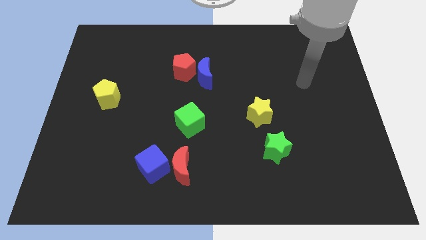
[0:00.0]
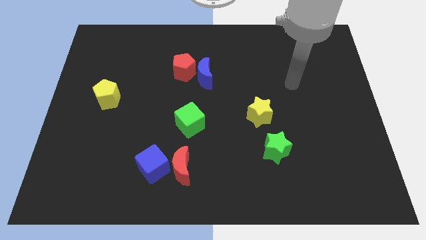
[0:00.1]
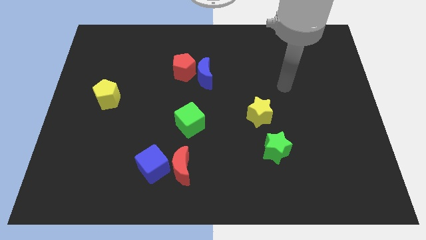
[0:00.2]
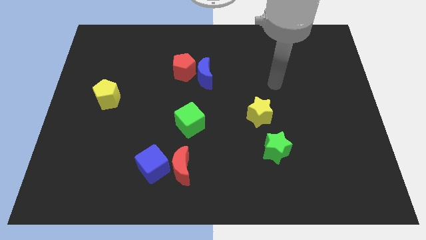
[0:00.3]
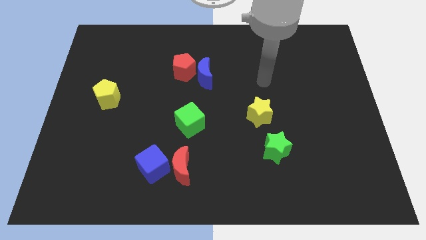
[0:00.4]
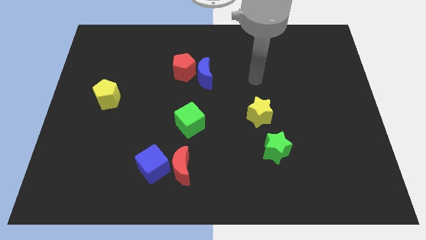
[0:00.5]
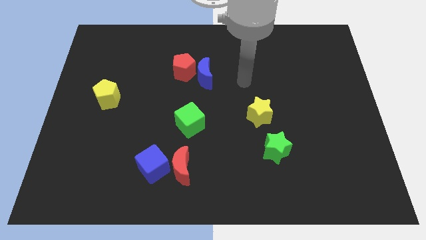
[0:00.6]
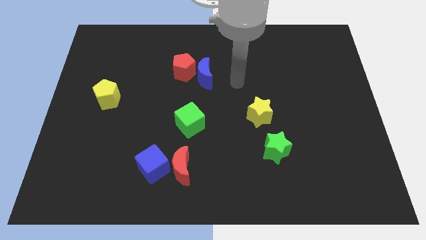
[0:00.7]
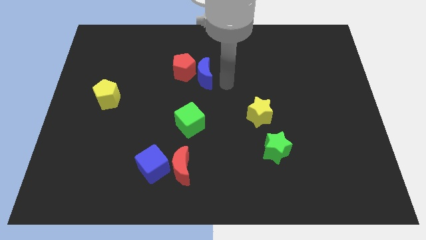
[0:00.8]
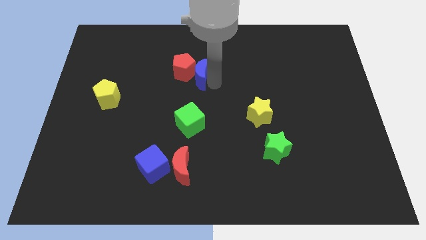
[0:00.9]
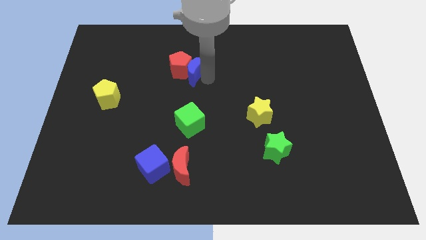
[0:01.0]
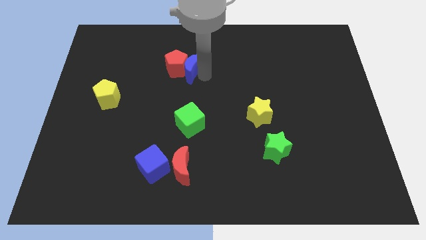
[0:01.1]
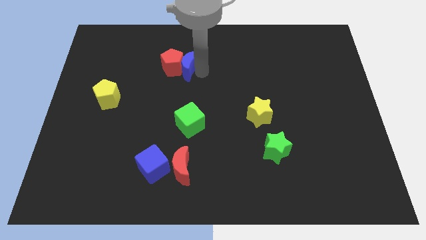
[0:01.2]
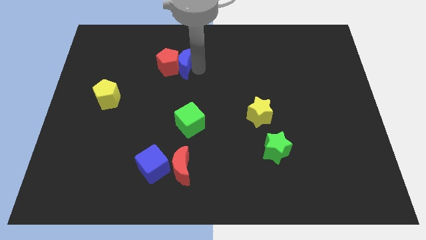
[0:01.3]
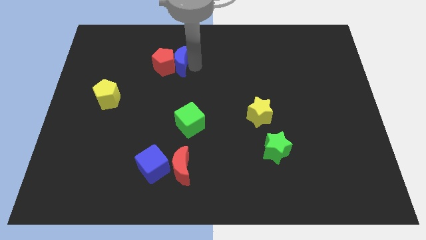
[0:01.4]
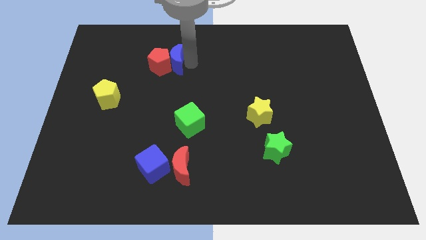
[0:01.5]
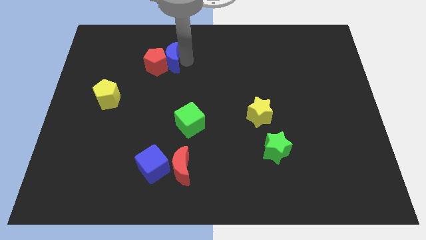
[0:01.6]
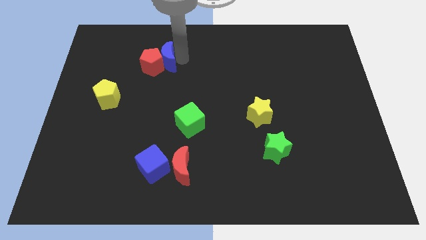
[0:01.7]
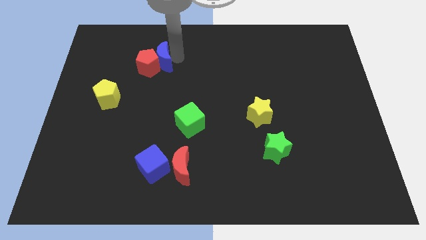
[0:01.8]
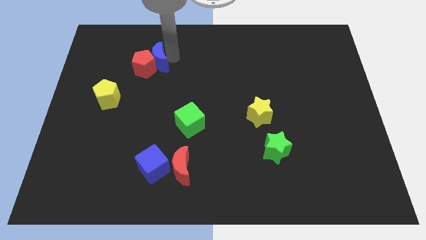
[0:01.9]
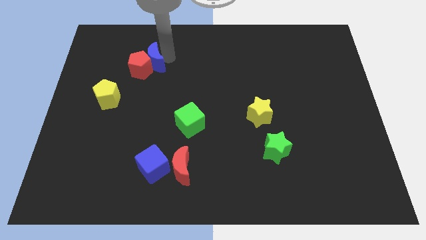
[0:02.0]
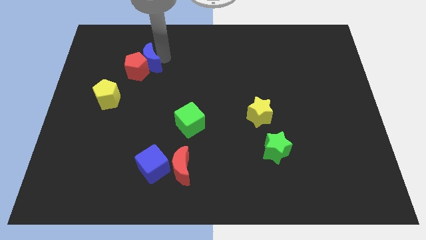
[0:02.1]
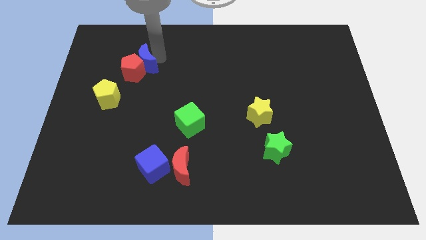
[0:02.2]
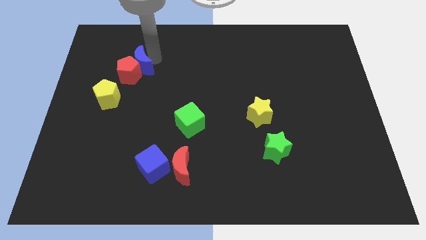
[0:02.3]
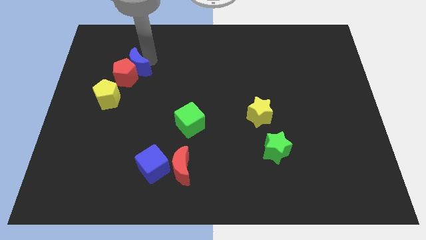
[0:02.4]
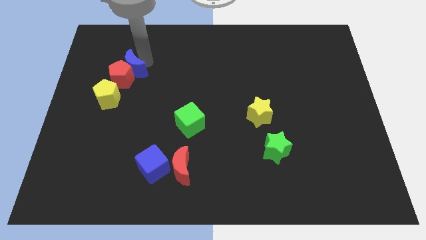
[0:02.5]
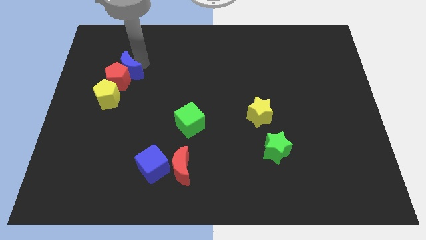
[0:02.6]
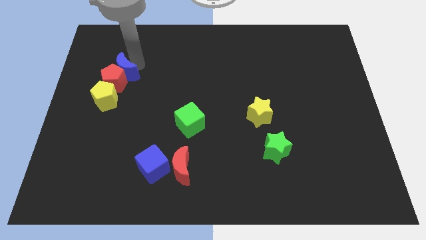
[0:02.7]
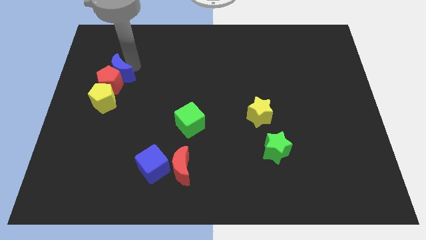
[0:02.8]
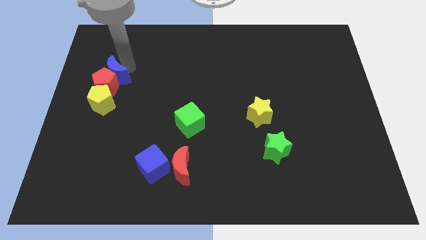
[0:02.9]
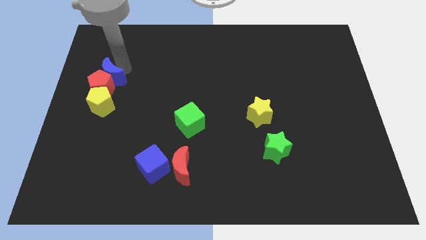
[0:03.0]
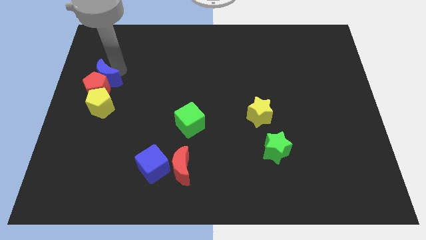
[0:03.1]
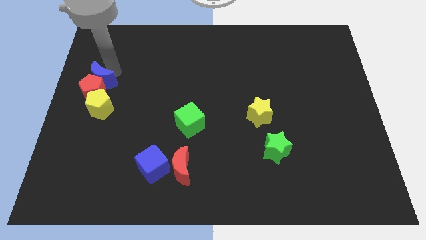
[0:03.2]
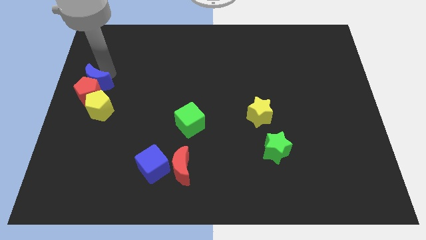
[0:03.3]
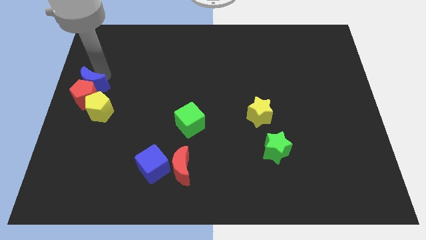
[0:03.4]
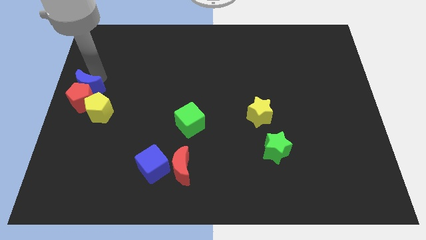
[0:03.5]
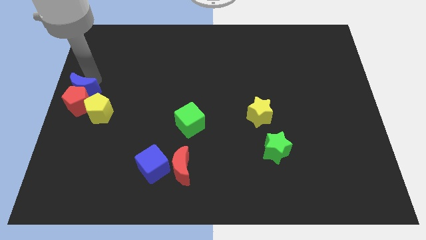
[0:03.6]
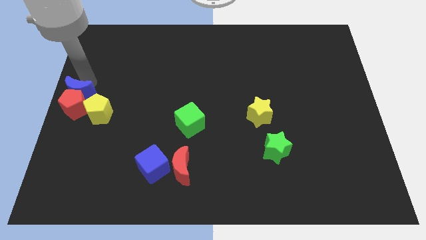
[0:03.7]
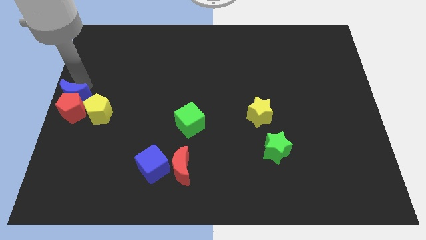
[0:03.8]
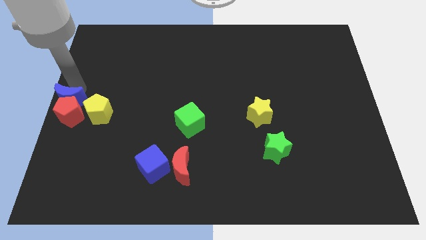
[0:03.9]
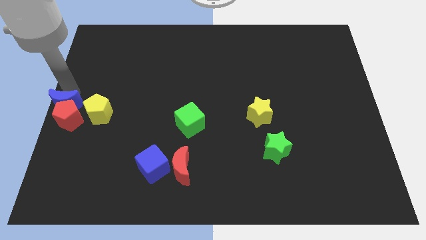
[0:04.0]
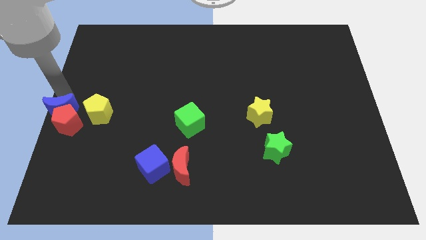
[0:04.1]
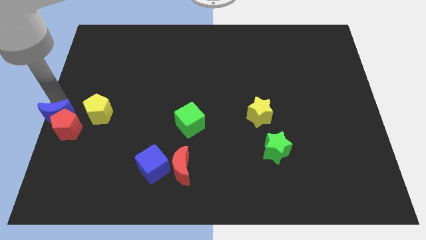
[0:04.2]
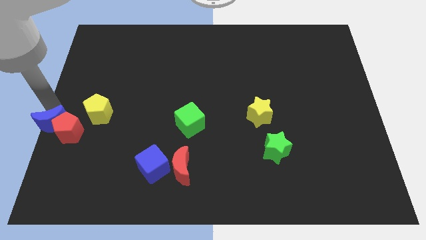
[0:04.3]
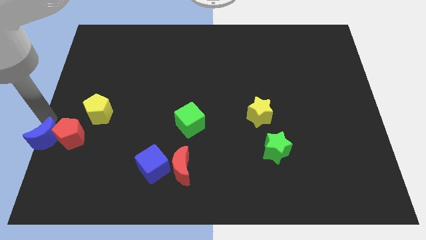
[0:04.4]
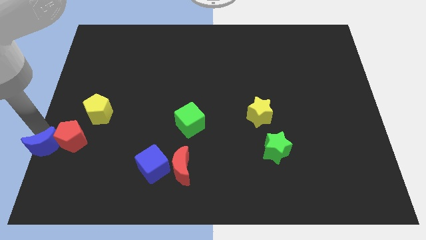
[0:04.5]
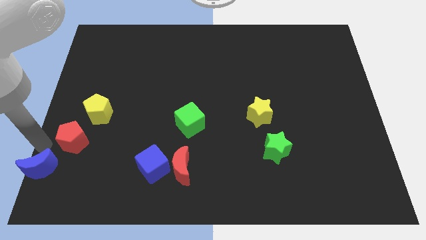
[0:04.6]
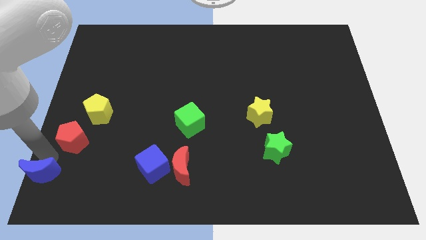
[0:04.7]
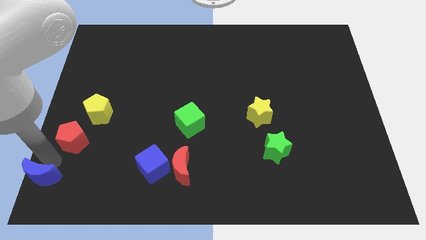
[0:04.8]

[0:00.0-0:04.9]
move the red pentagon away from the blue moon

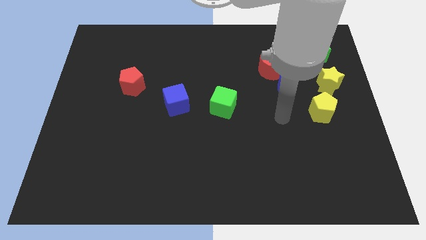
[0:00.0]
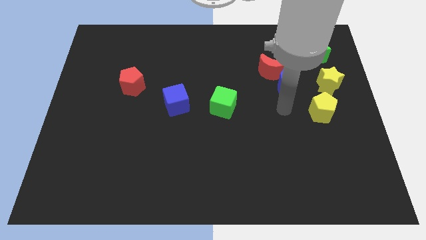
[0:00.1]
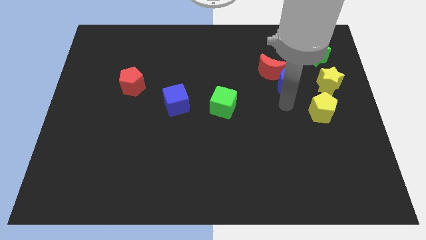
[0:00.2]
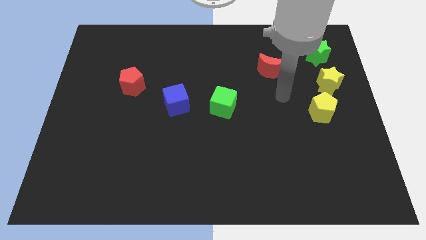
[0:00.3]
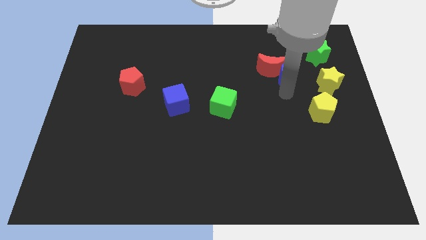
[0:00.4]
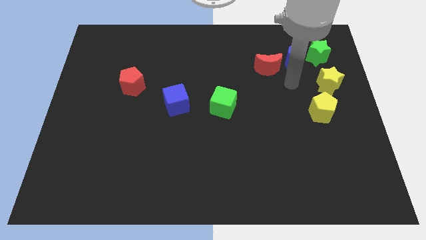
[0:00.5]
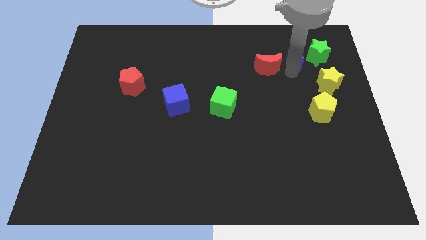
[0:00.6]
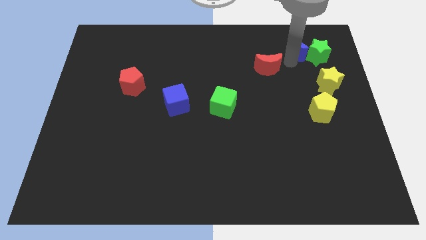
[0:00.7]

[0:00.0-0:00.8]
move the red moon away from the blue moon

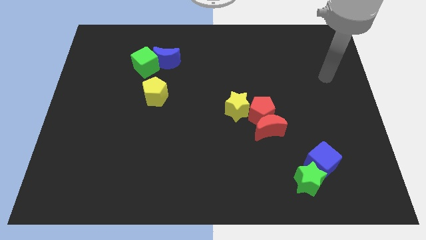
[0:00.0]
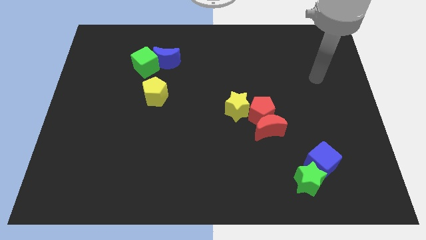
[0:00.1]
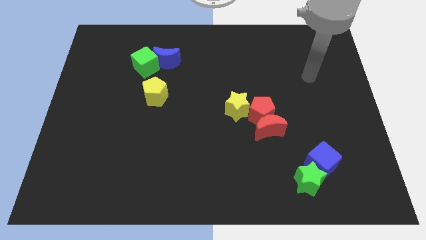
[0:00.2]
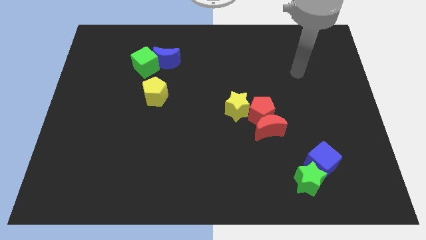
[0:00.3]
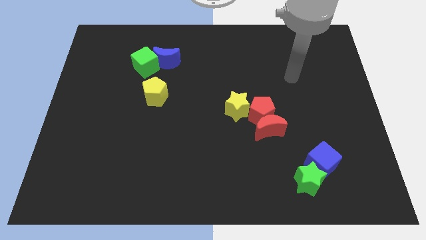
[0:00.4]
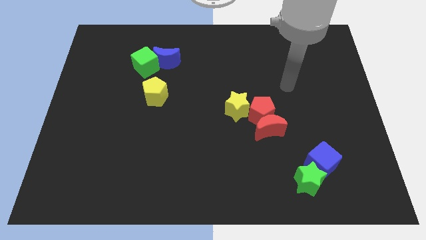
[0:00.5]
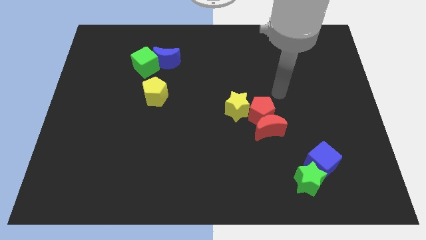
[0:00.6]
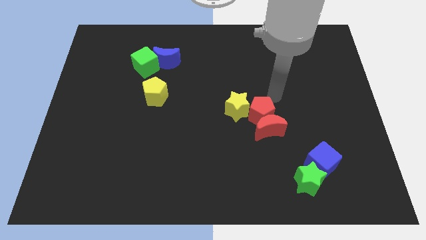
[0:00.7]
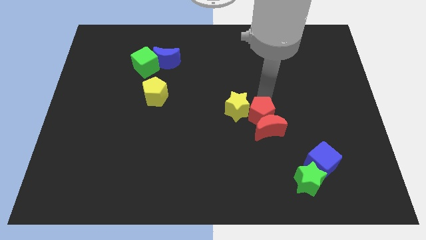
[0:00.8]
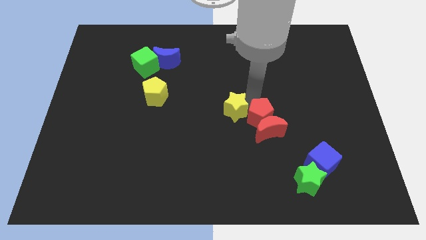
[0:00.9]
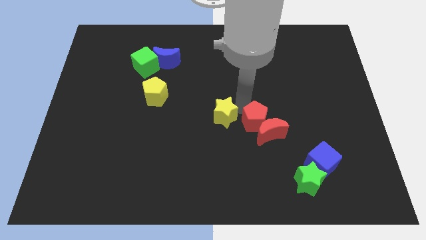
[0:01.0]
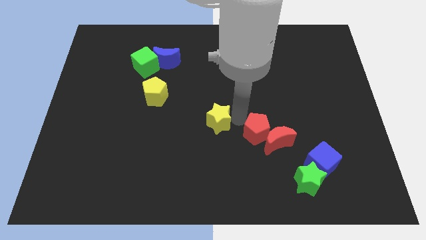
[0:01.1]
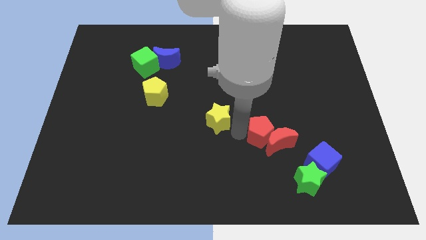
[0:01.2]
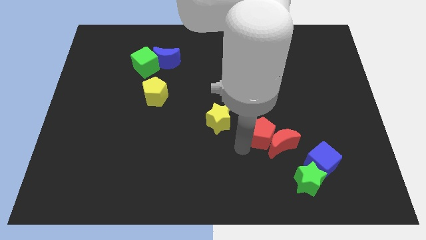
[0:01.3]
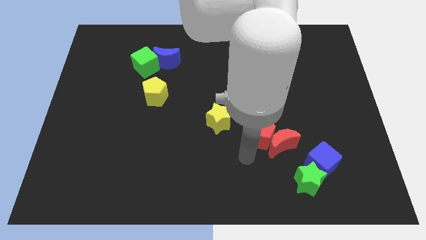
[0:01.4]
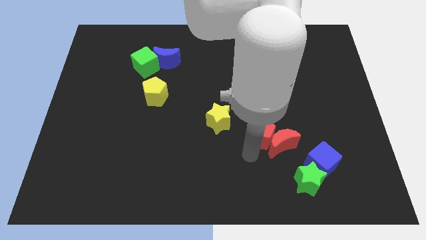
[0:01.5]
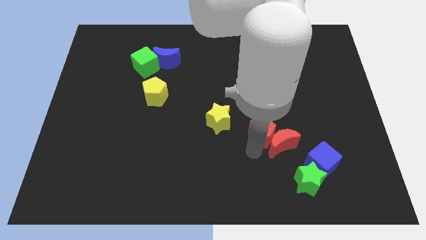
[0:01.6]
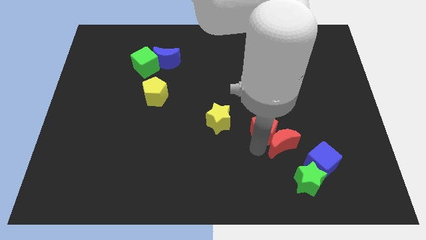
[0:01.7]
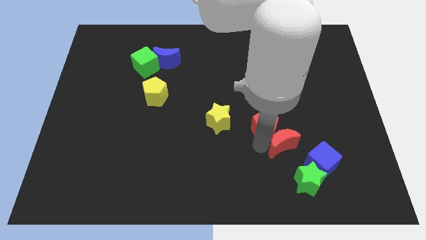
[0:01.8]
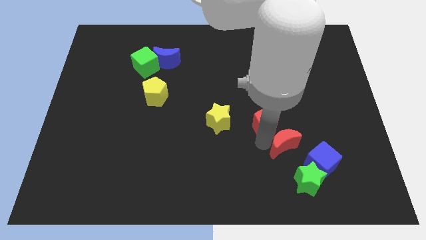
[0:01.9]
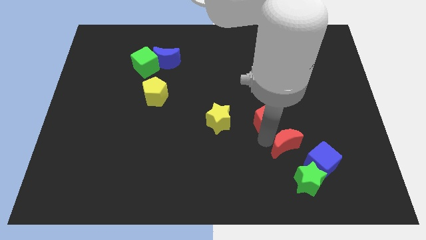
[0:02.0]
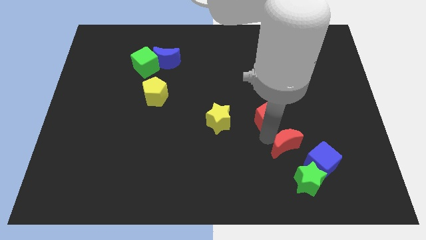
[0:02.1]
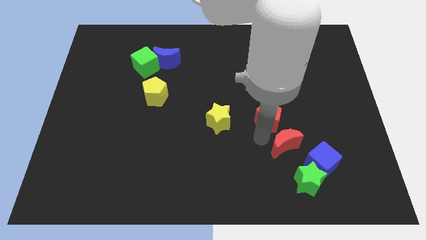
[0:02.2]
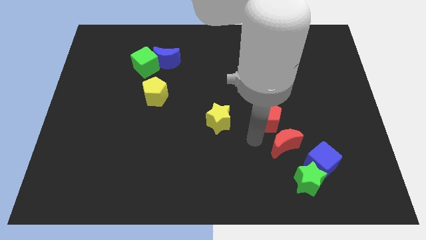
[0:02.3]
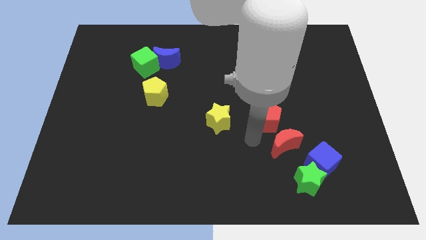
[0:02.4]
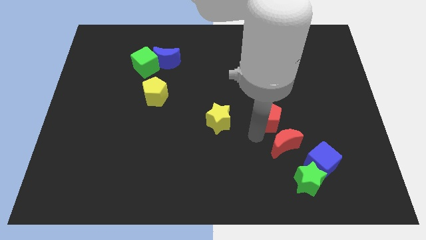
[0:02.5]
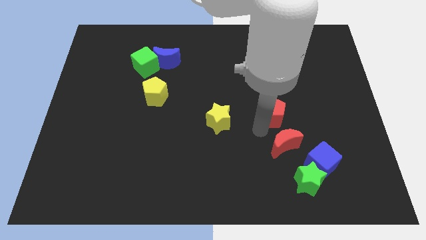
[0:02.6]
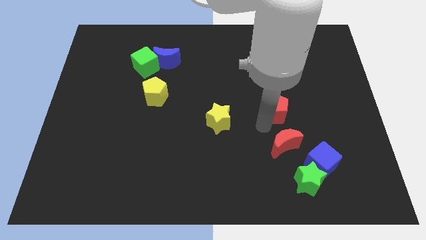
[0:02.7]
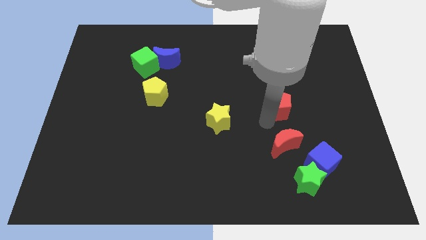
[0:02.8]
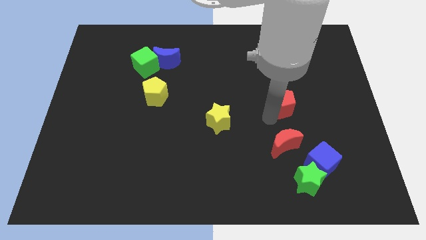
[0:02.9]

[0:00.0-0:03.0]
pull the red pentagon apart from the red moon and yellow star

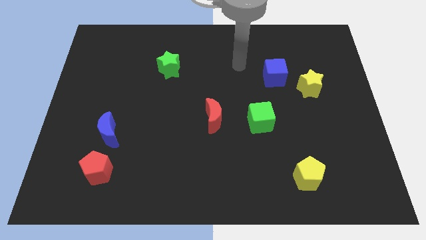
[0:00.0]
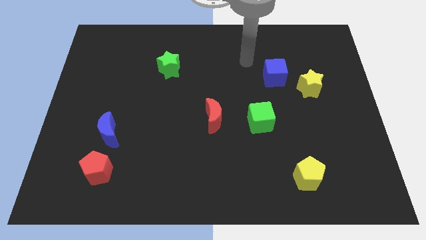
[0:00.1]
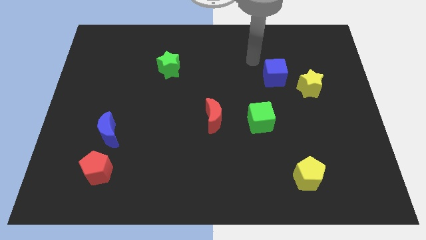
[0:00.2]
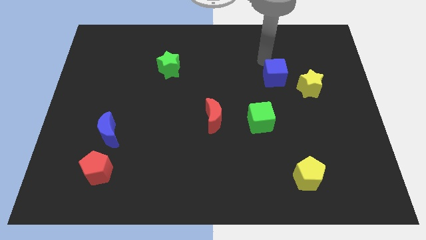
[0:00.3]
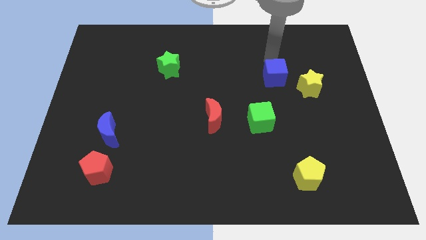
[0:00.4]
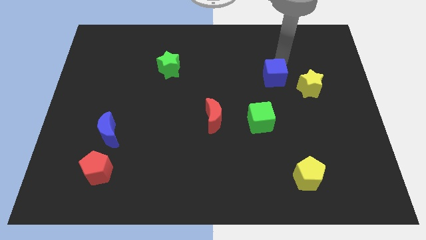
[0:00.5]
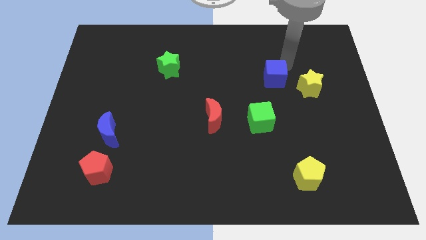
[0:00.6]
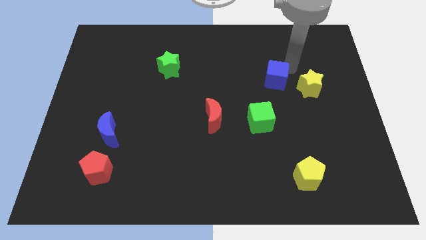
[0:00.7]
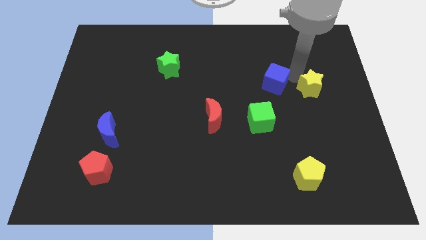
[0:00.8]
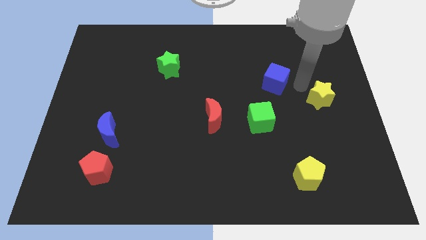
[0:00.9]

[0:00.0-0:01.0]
pull the blue cube apart from the yellow star
